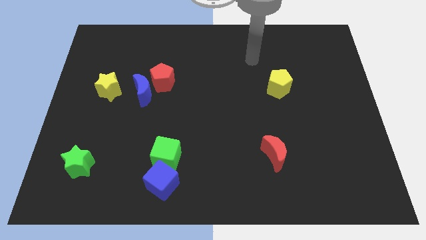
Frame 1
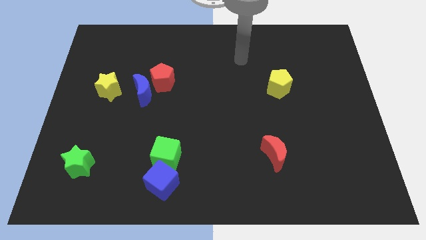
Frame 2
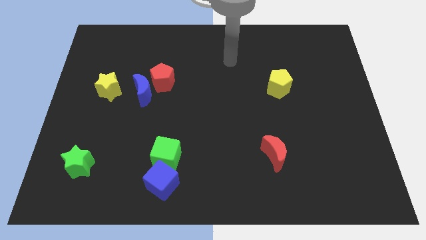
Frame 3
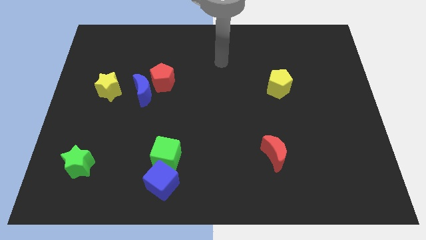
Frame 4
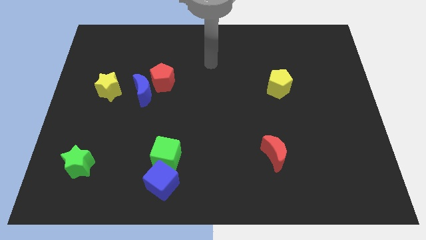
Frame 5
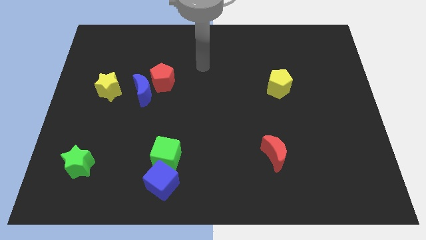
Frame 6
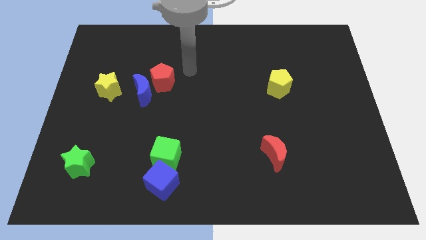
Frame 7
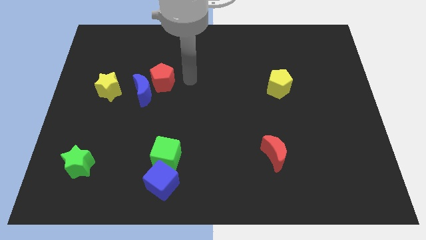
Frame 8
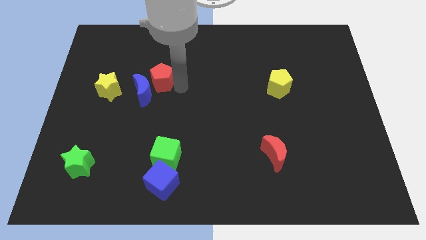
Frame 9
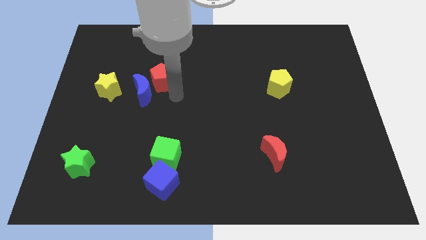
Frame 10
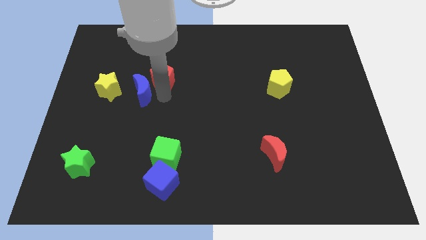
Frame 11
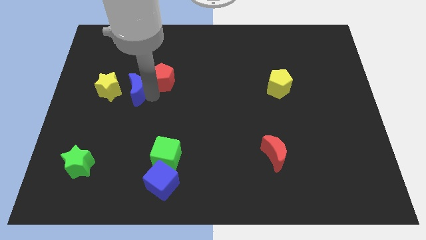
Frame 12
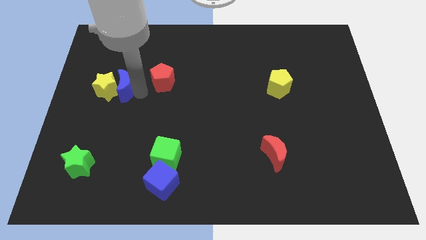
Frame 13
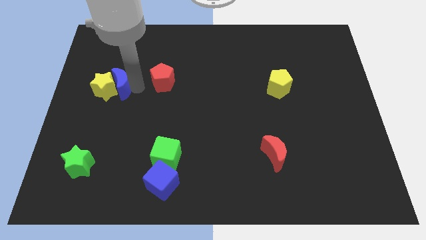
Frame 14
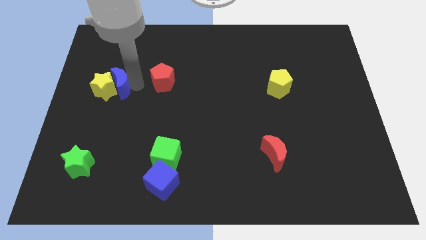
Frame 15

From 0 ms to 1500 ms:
move the red pentagon away from the blue moon

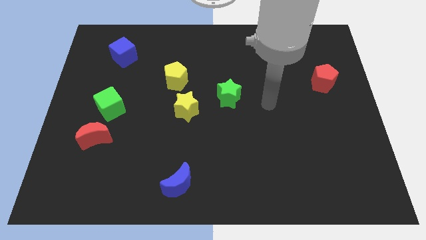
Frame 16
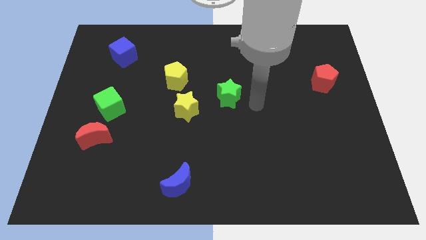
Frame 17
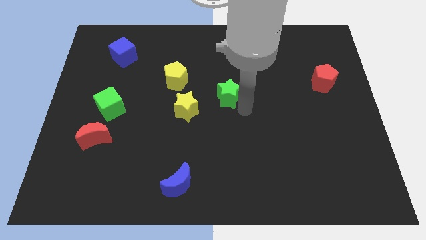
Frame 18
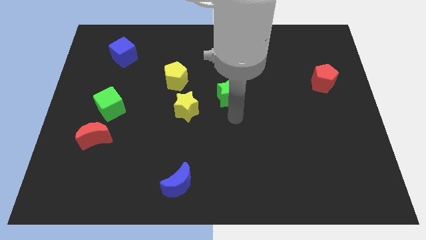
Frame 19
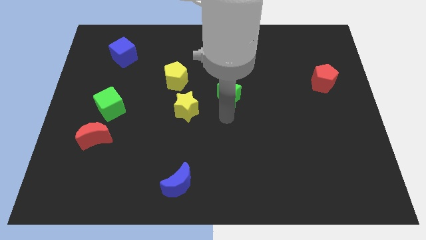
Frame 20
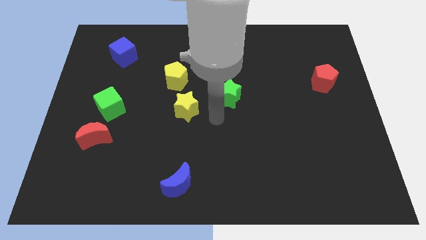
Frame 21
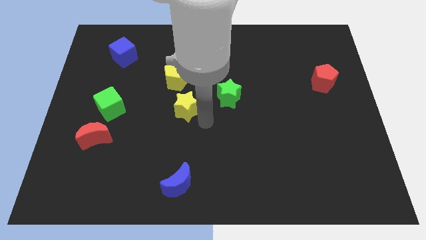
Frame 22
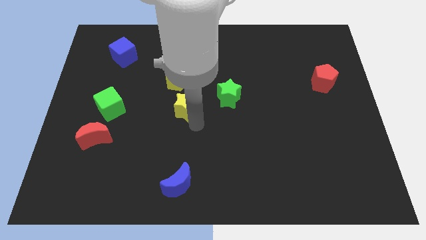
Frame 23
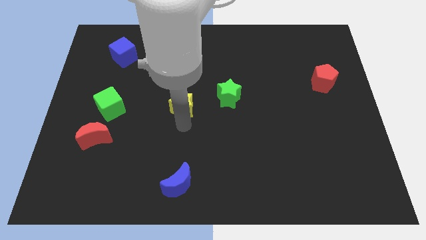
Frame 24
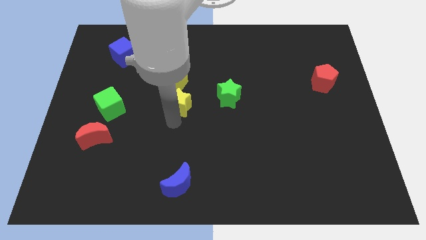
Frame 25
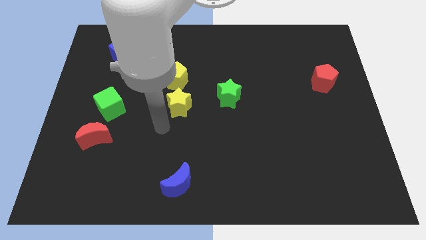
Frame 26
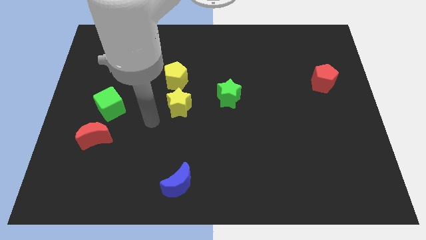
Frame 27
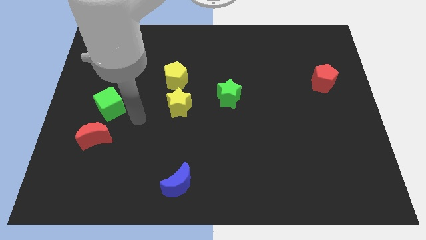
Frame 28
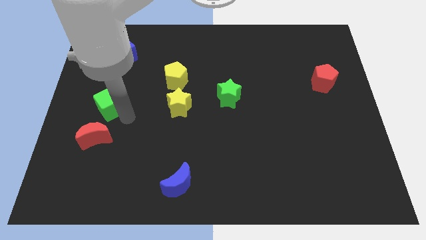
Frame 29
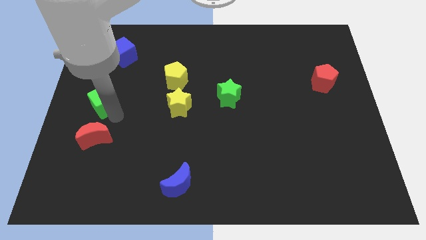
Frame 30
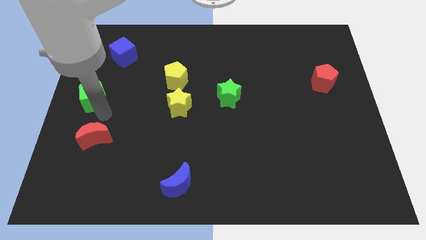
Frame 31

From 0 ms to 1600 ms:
separate the red moon from the green cube

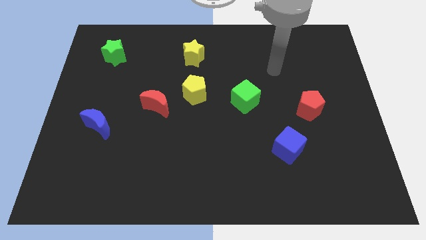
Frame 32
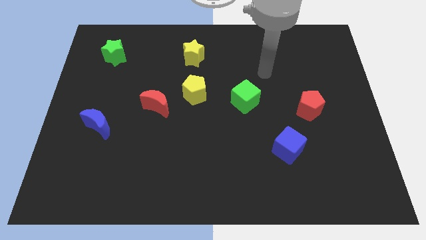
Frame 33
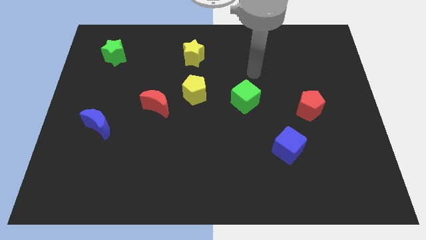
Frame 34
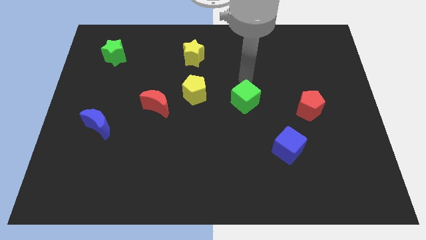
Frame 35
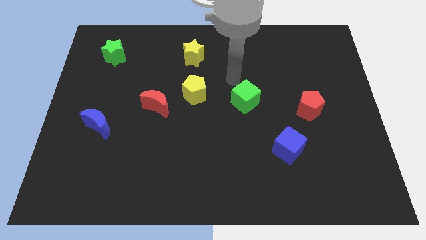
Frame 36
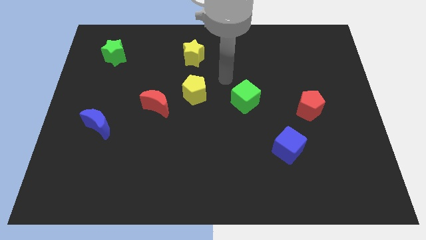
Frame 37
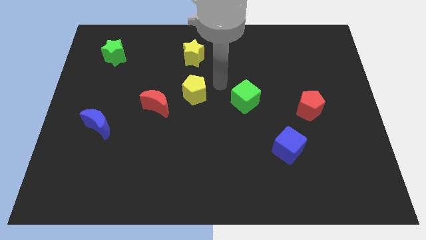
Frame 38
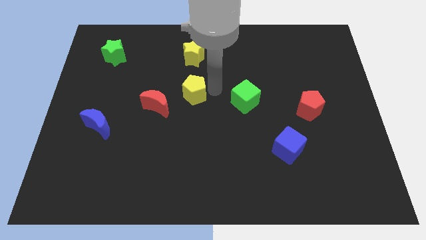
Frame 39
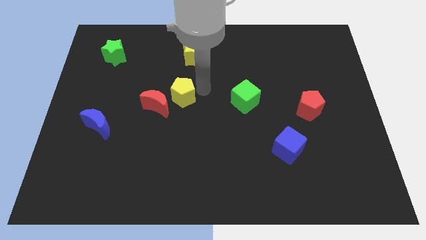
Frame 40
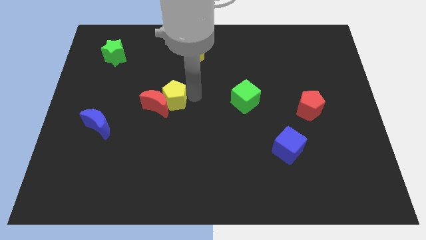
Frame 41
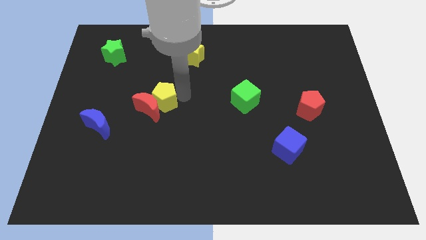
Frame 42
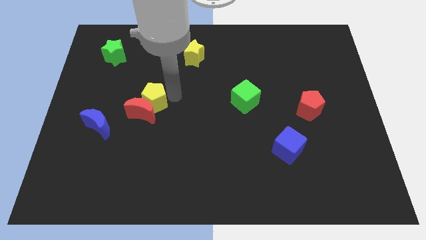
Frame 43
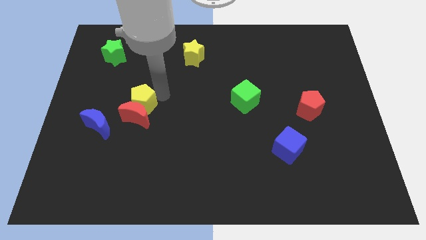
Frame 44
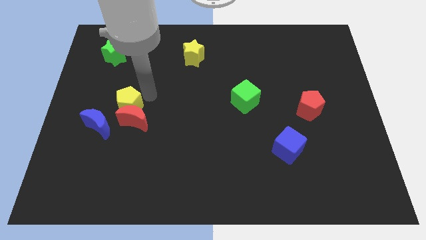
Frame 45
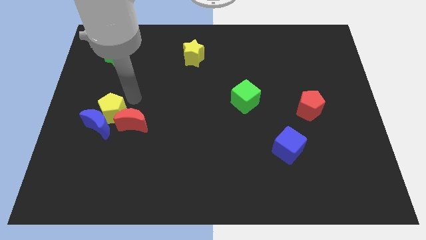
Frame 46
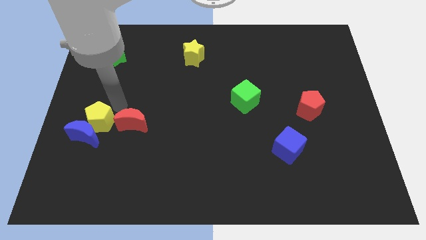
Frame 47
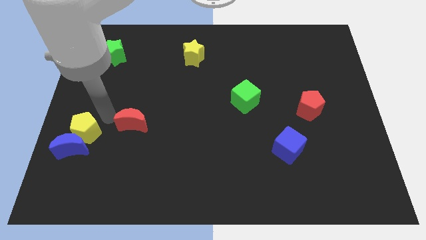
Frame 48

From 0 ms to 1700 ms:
move the red moon away from the yellow pentagon

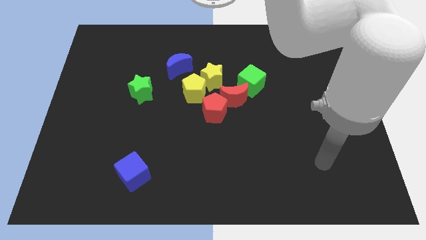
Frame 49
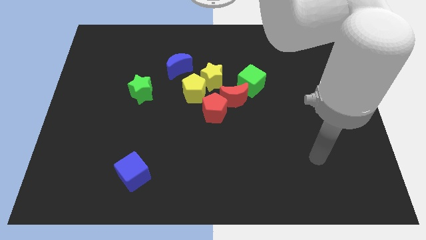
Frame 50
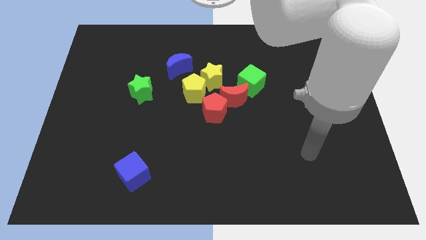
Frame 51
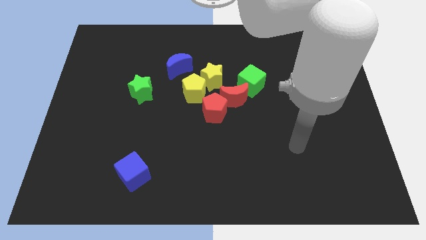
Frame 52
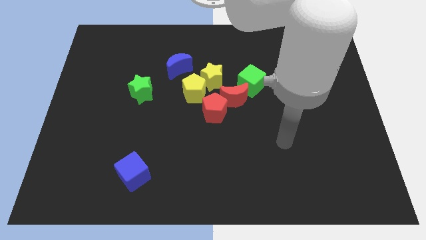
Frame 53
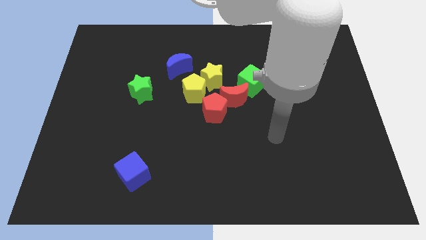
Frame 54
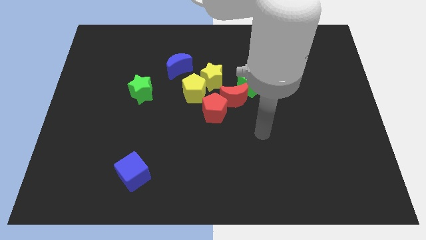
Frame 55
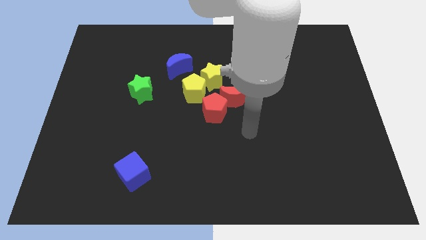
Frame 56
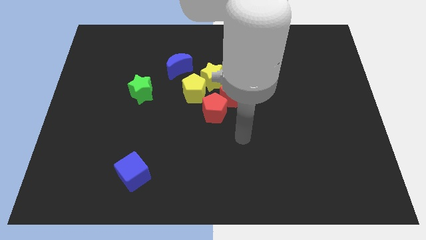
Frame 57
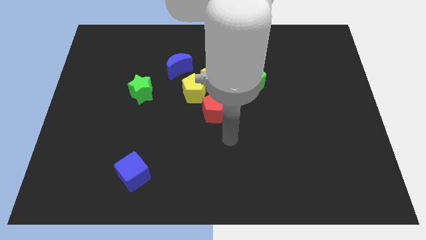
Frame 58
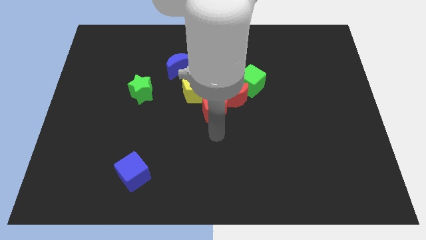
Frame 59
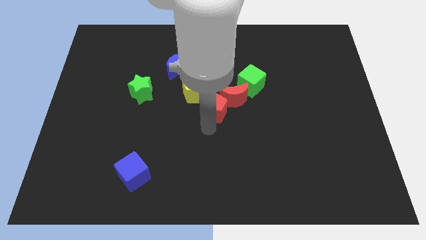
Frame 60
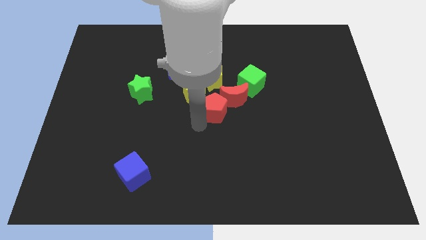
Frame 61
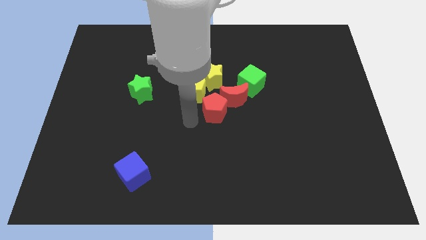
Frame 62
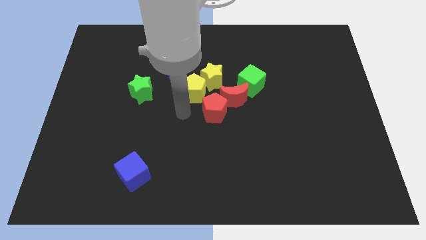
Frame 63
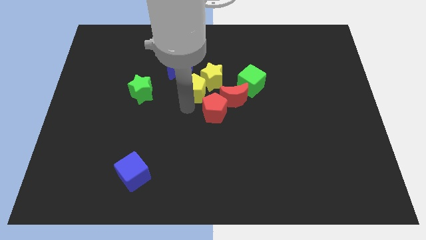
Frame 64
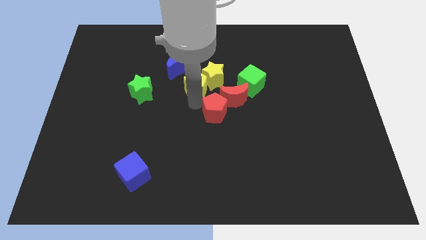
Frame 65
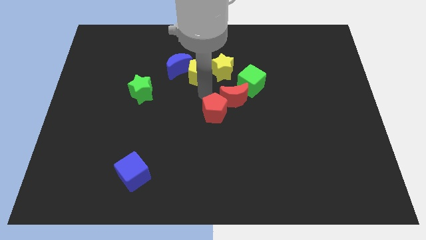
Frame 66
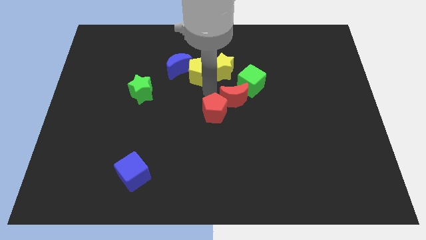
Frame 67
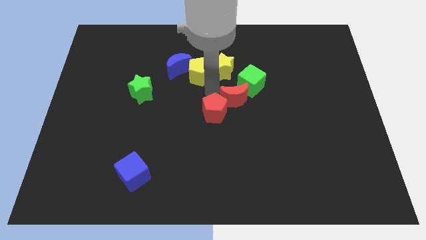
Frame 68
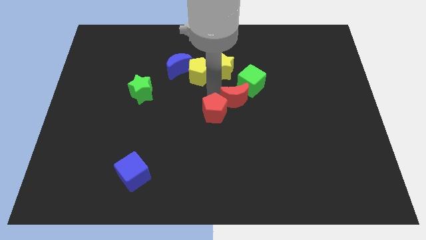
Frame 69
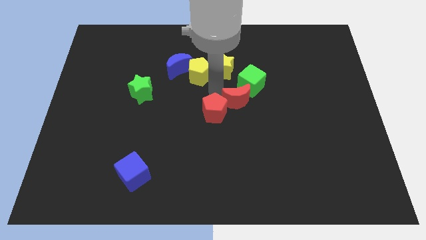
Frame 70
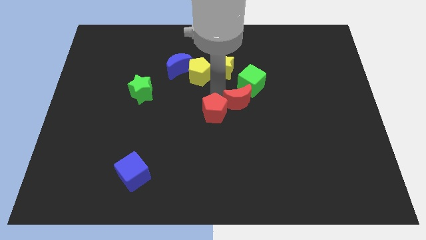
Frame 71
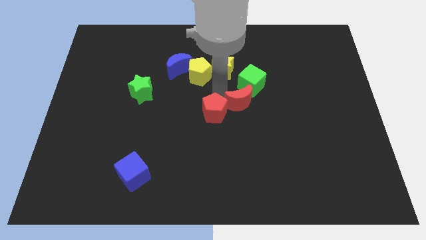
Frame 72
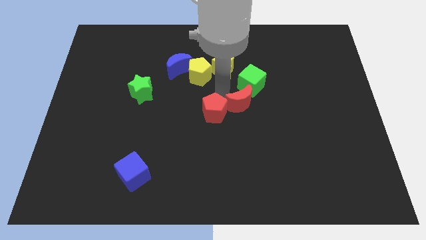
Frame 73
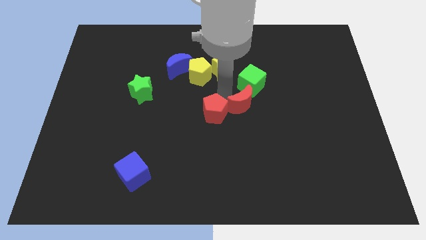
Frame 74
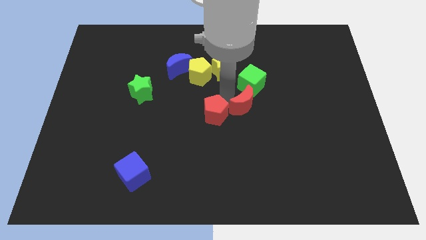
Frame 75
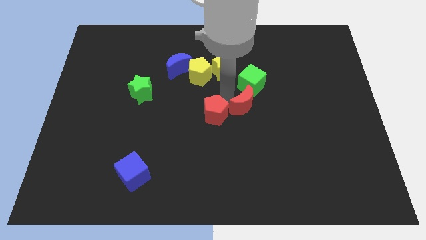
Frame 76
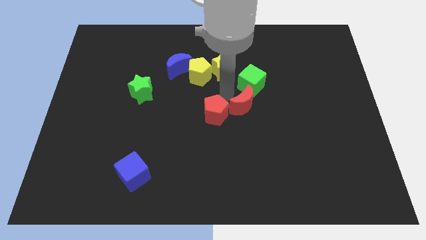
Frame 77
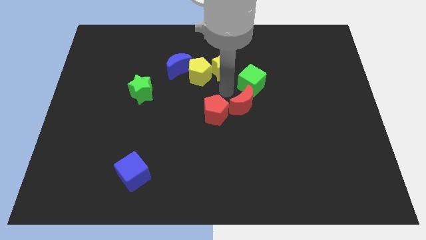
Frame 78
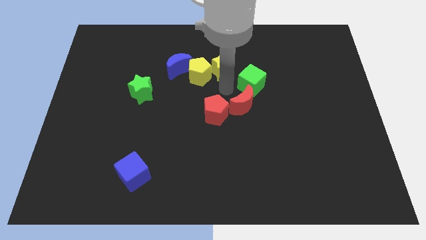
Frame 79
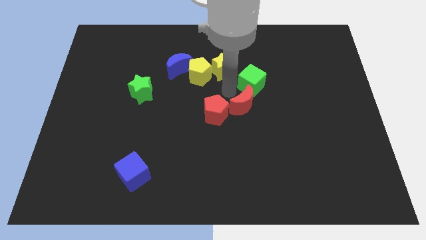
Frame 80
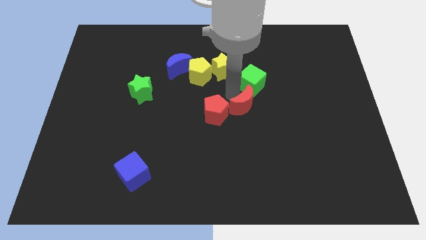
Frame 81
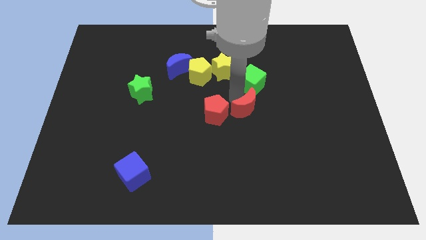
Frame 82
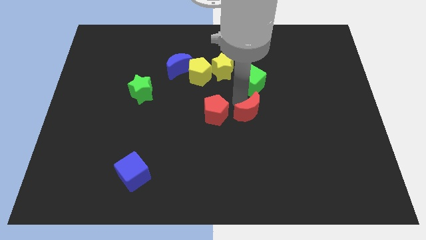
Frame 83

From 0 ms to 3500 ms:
separate the red moon from the group

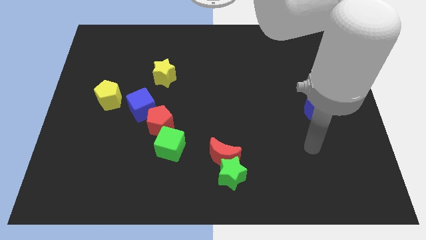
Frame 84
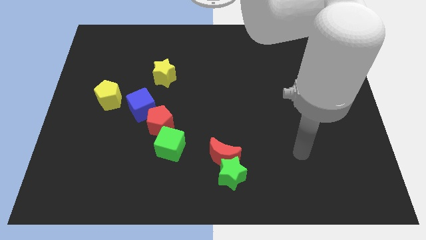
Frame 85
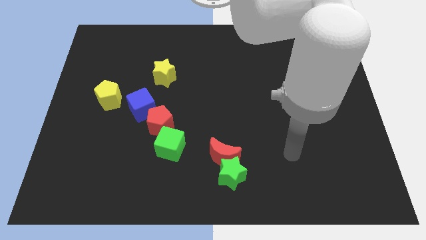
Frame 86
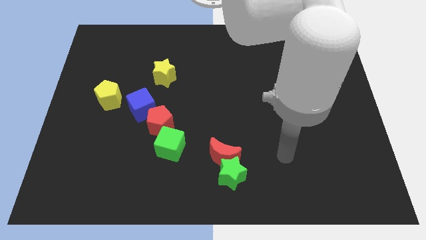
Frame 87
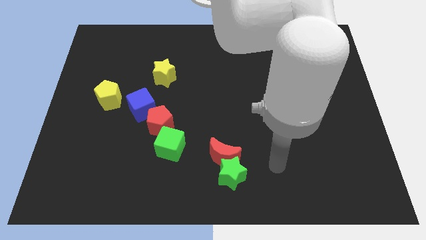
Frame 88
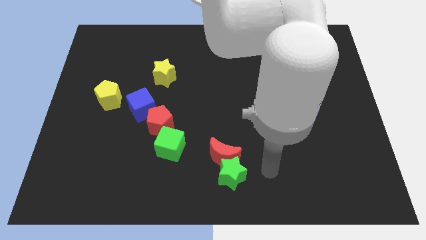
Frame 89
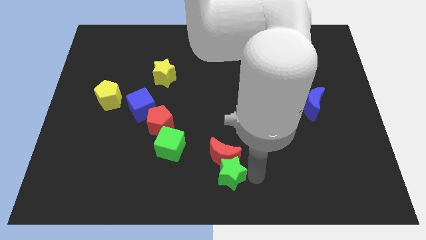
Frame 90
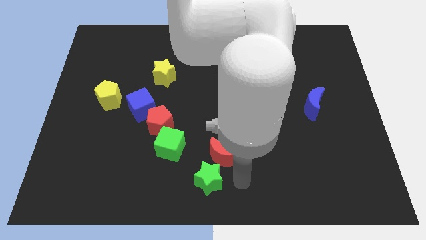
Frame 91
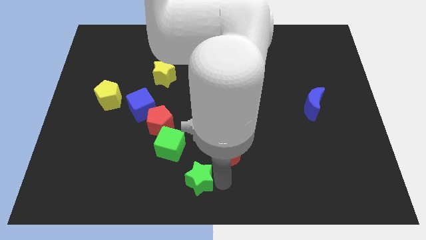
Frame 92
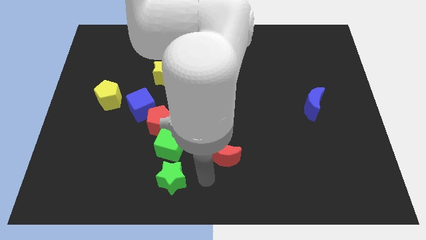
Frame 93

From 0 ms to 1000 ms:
pull the red moon apart from the green star

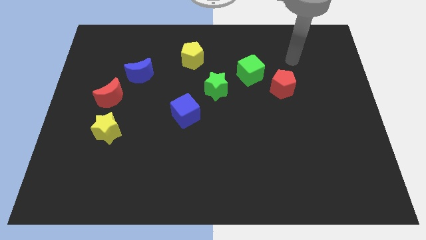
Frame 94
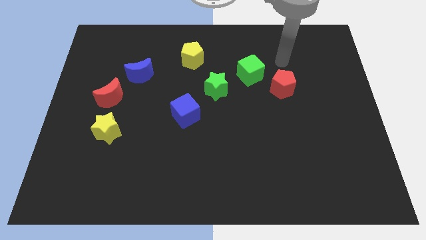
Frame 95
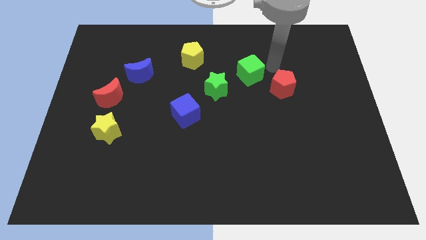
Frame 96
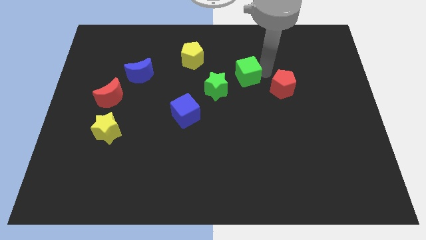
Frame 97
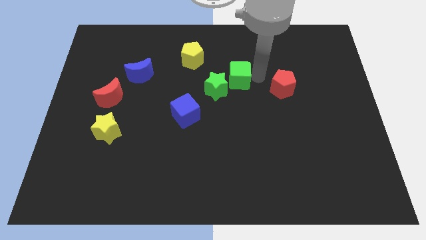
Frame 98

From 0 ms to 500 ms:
move the red pentagon away from the green cube
